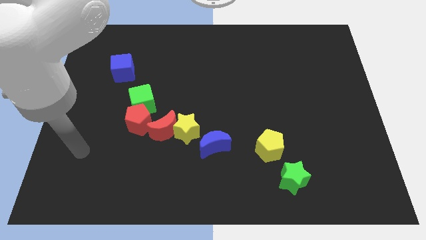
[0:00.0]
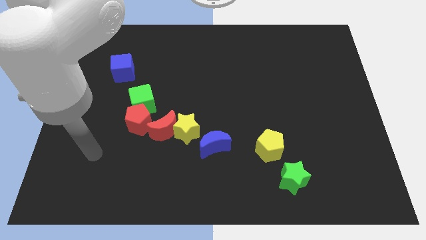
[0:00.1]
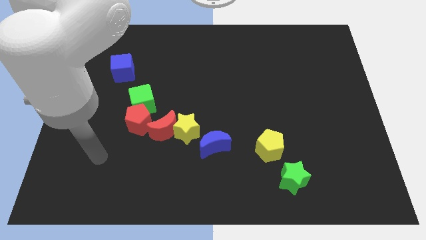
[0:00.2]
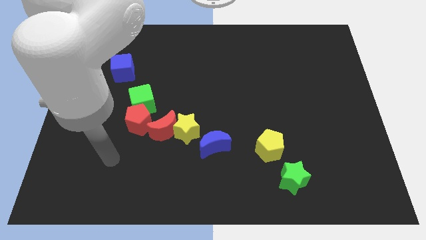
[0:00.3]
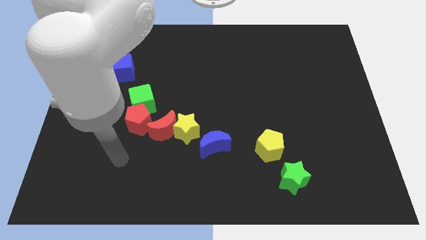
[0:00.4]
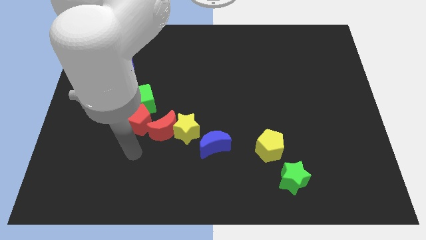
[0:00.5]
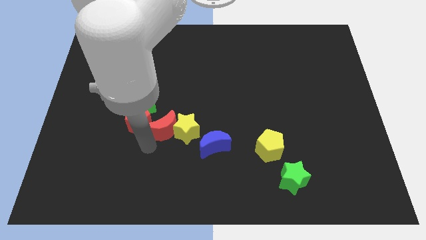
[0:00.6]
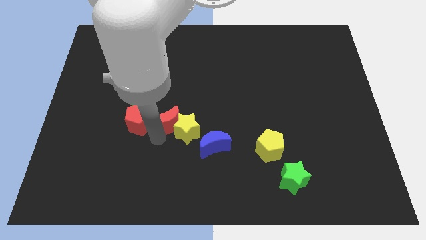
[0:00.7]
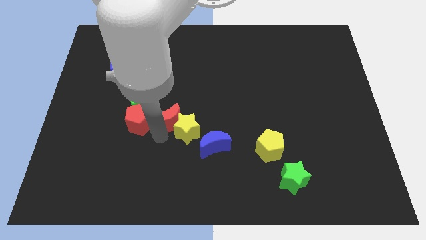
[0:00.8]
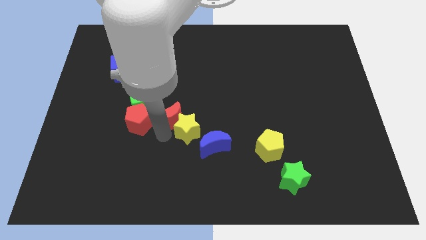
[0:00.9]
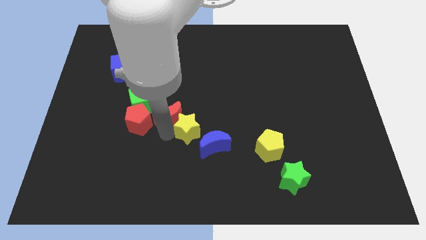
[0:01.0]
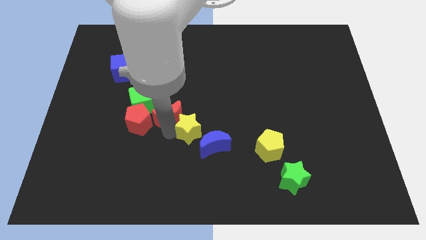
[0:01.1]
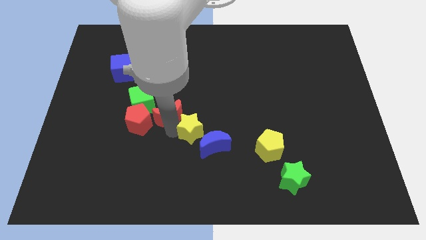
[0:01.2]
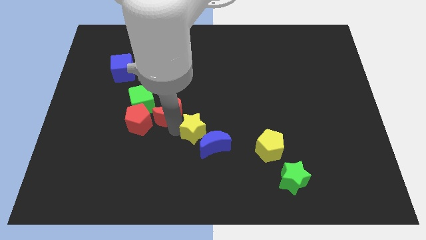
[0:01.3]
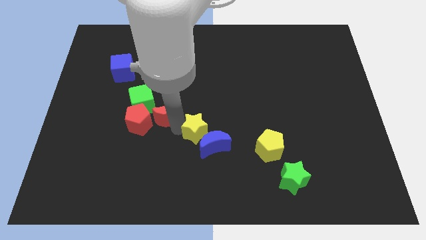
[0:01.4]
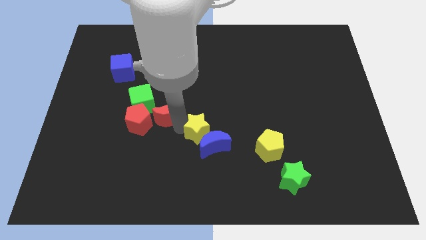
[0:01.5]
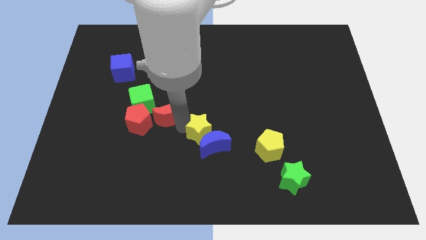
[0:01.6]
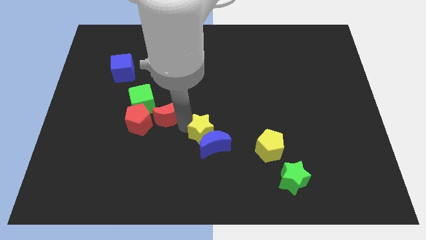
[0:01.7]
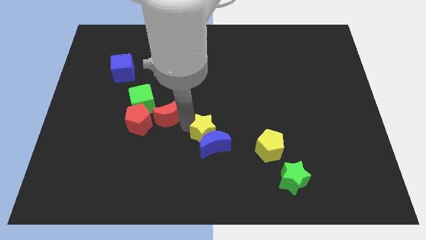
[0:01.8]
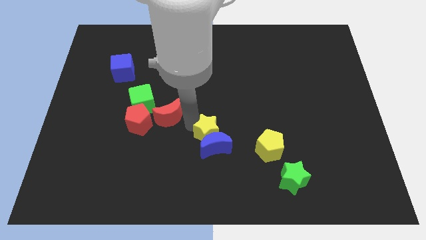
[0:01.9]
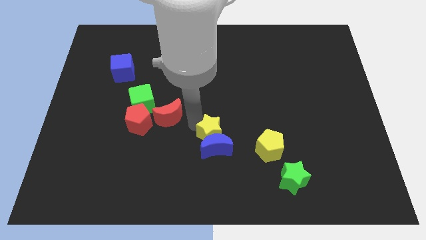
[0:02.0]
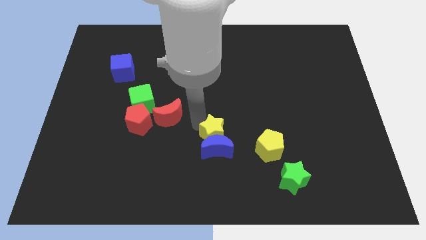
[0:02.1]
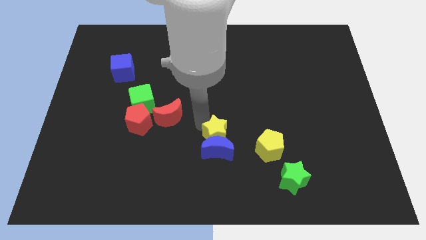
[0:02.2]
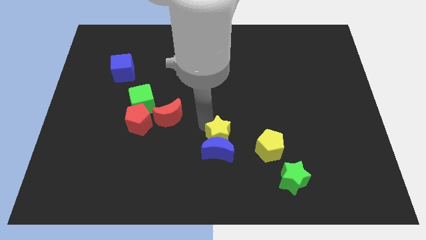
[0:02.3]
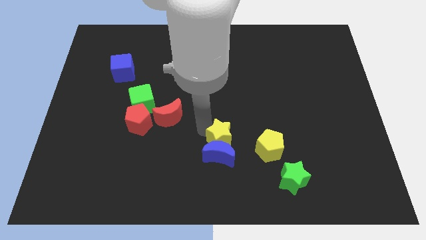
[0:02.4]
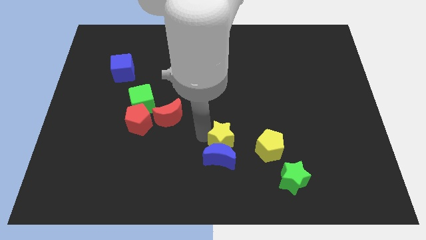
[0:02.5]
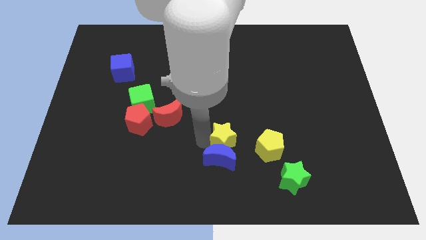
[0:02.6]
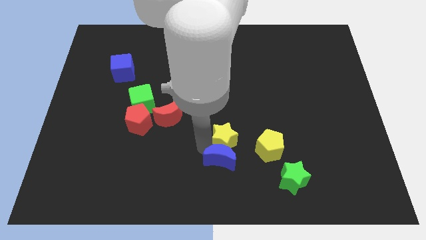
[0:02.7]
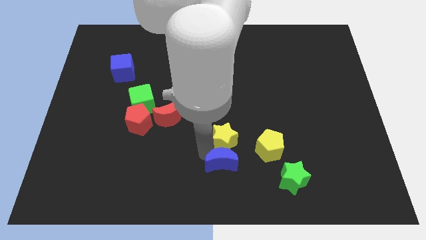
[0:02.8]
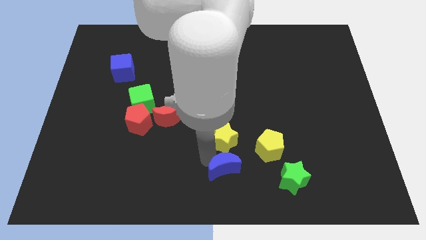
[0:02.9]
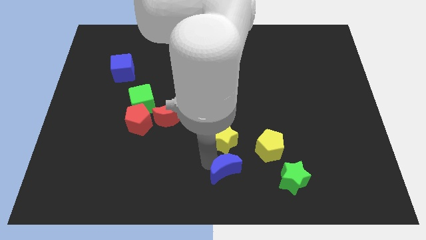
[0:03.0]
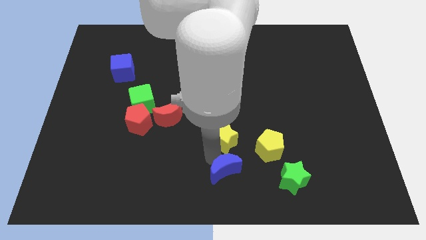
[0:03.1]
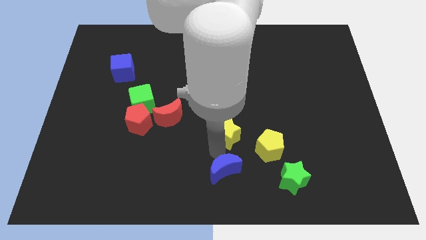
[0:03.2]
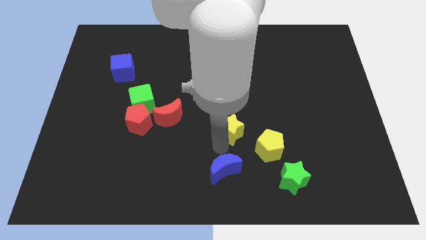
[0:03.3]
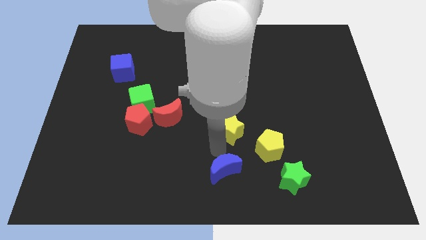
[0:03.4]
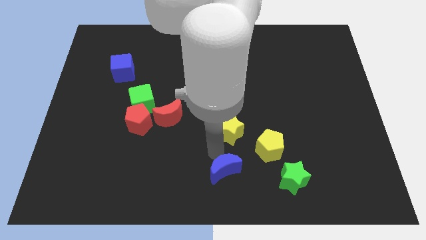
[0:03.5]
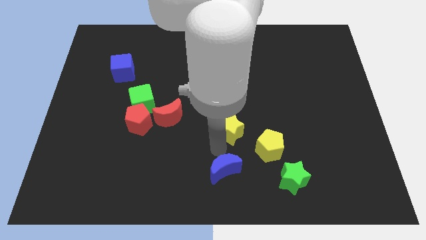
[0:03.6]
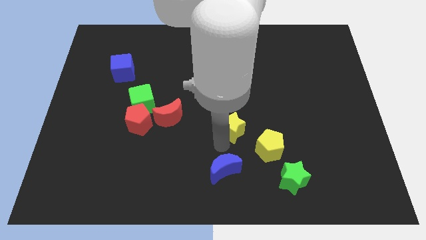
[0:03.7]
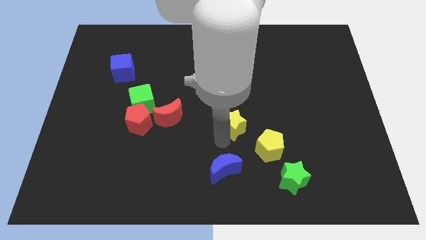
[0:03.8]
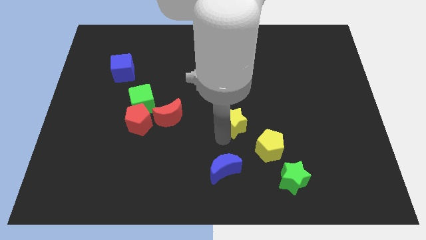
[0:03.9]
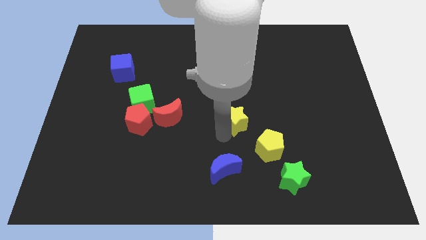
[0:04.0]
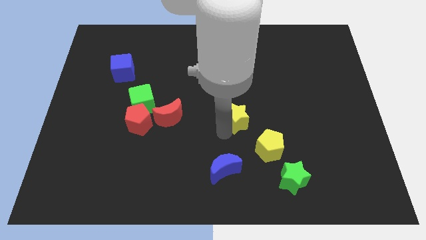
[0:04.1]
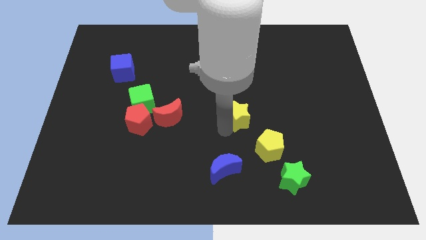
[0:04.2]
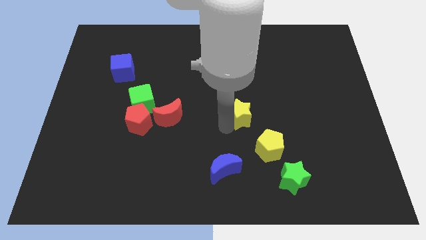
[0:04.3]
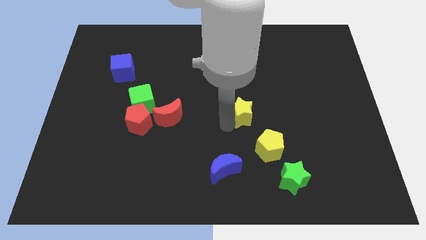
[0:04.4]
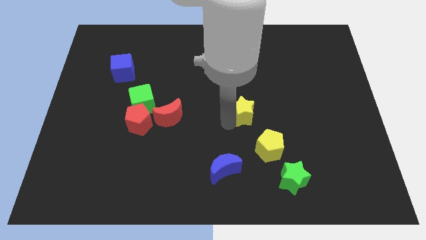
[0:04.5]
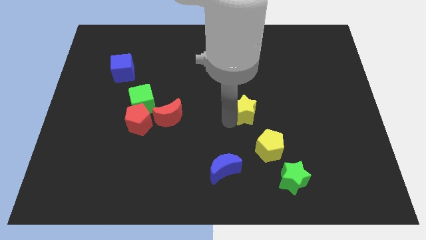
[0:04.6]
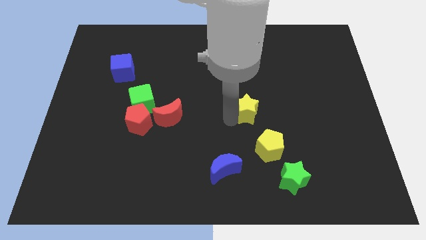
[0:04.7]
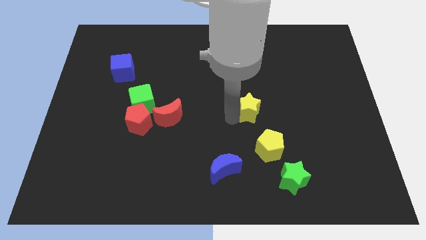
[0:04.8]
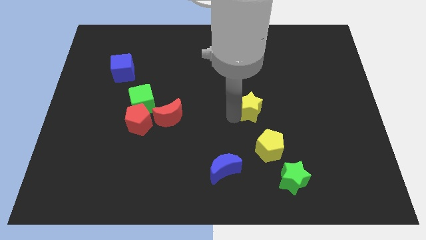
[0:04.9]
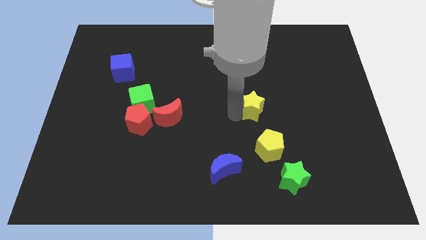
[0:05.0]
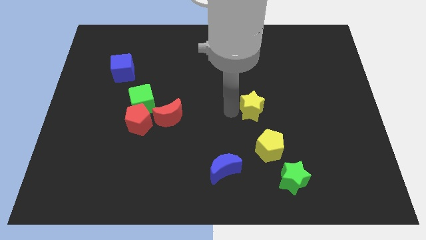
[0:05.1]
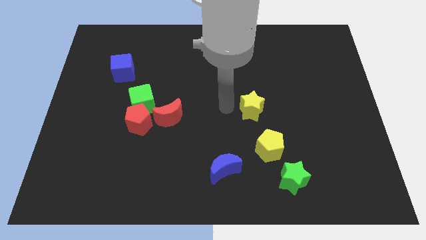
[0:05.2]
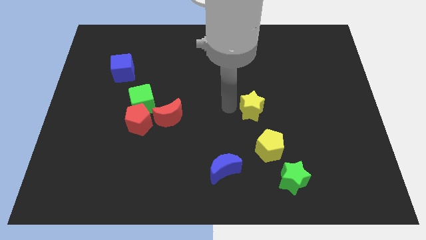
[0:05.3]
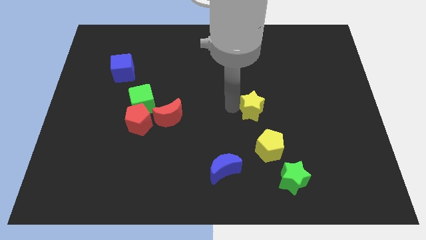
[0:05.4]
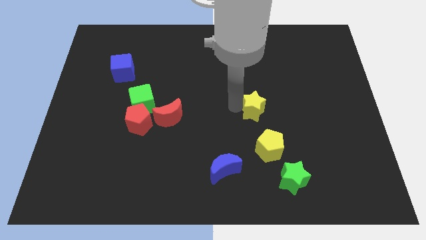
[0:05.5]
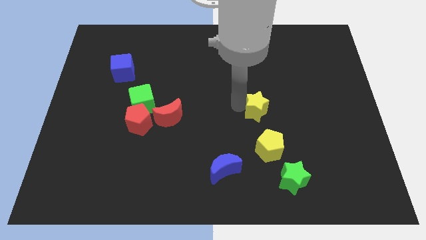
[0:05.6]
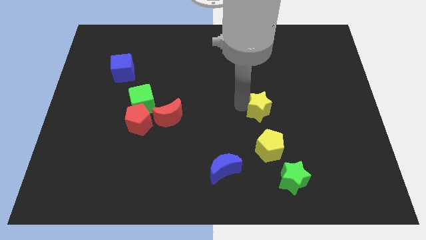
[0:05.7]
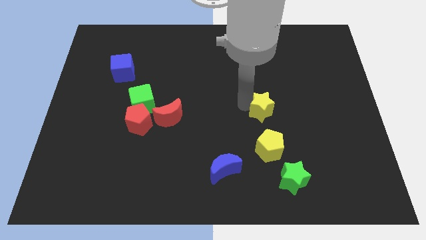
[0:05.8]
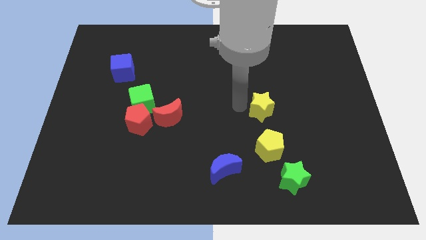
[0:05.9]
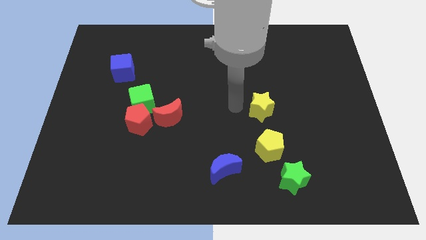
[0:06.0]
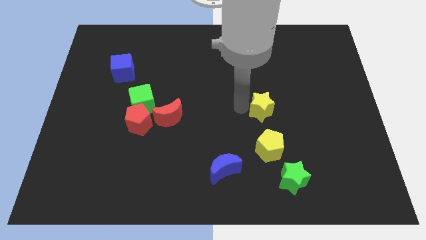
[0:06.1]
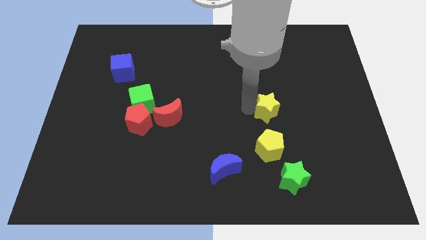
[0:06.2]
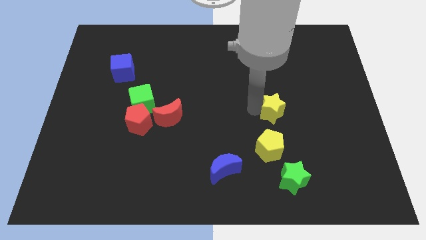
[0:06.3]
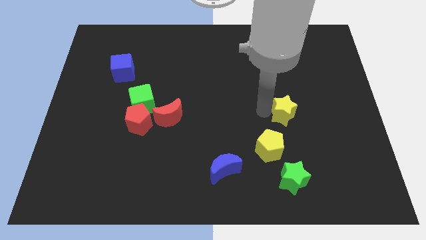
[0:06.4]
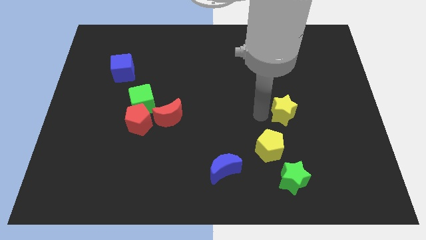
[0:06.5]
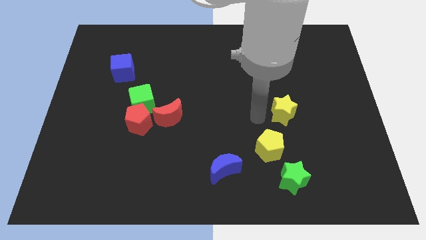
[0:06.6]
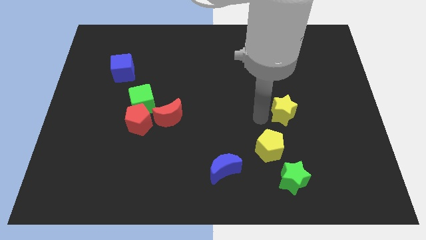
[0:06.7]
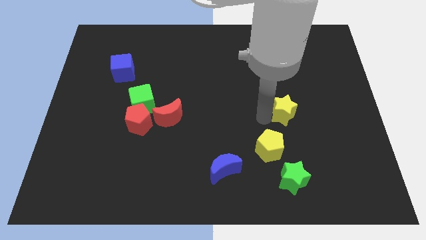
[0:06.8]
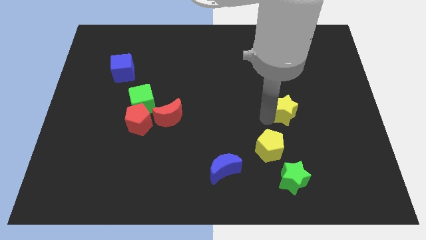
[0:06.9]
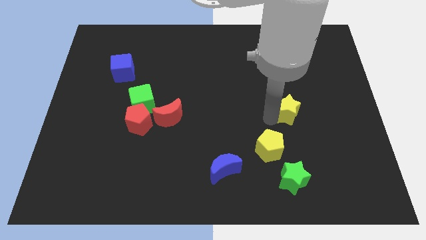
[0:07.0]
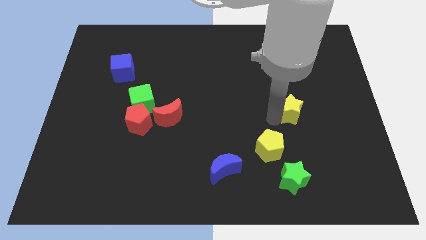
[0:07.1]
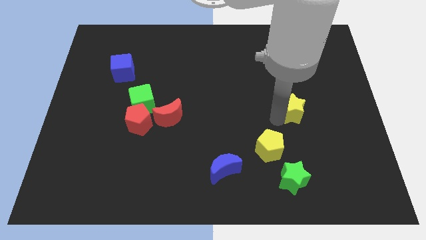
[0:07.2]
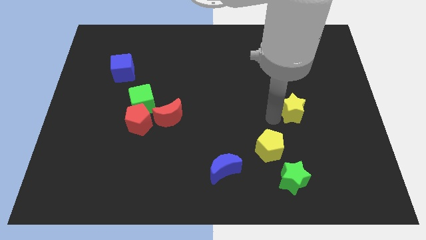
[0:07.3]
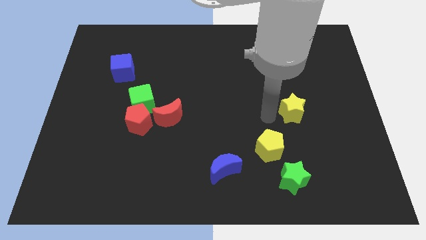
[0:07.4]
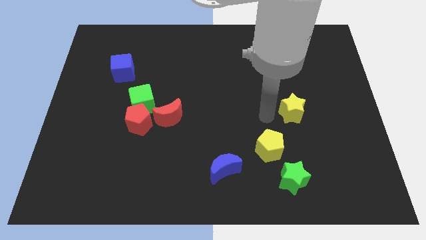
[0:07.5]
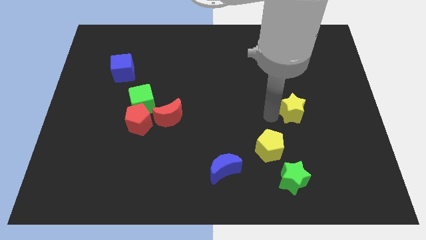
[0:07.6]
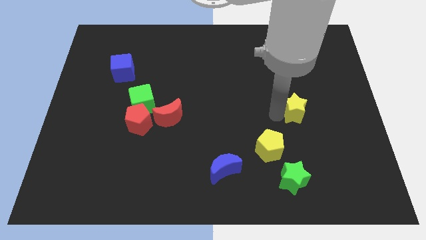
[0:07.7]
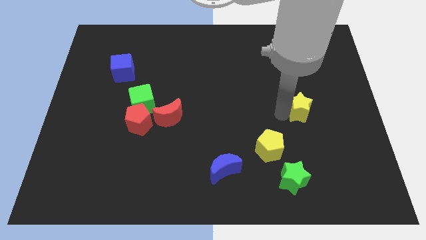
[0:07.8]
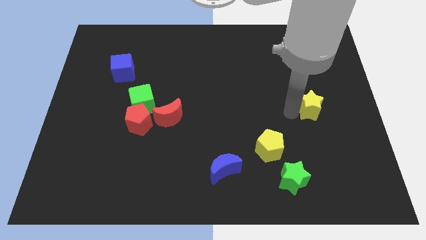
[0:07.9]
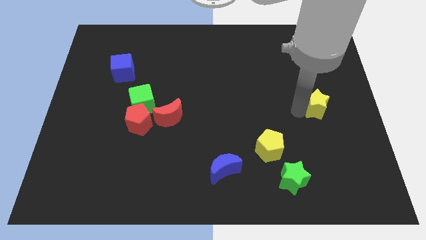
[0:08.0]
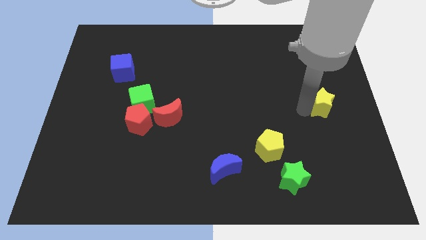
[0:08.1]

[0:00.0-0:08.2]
push the yellow star to the right side

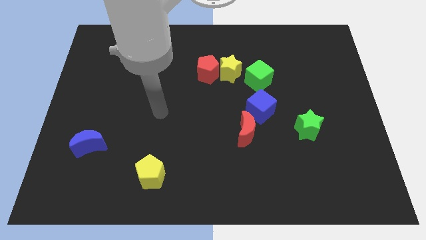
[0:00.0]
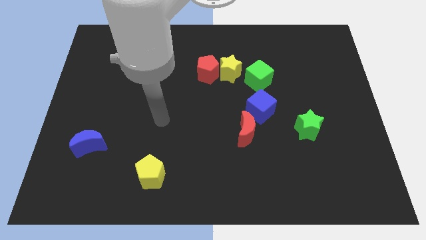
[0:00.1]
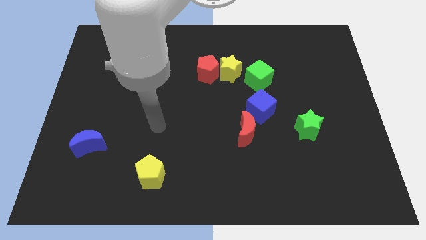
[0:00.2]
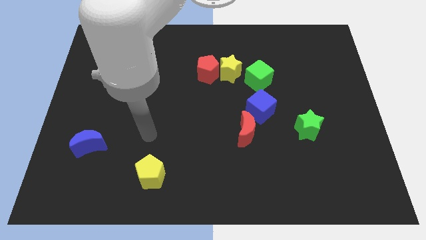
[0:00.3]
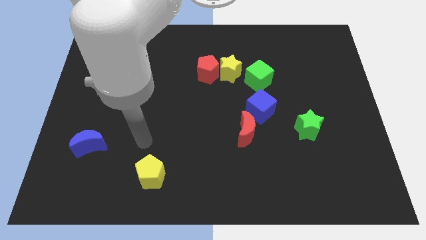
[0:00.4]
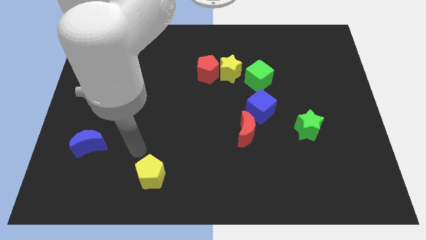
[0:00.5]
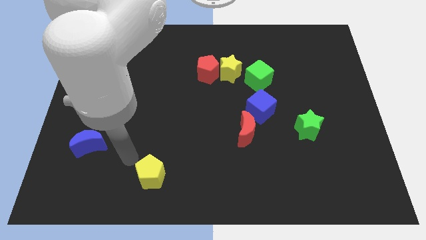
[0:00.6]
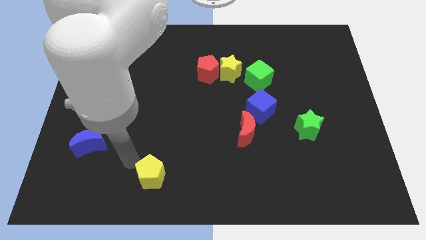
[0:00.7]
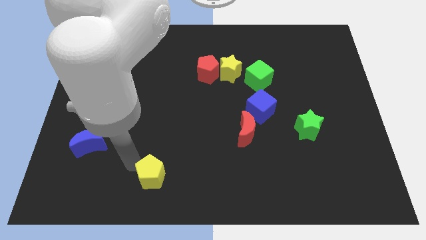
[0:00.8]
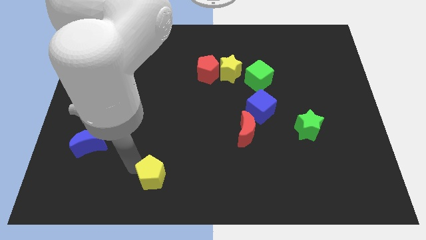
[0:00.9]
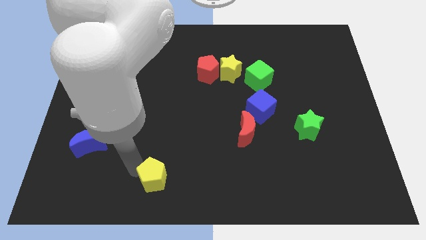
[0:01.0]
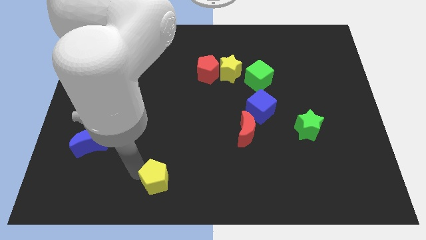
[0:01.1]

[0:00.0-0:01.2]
push the yellow pentagon to the bottom
